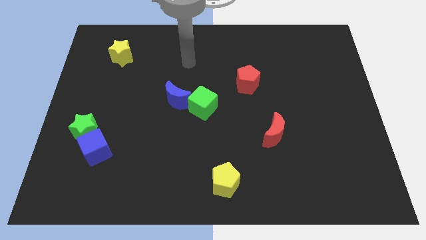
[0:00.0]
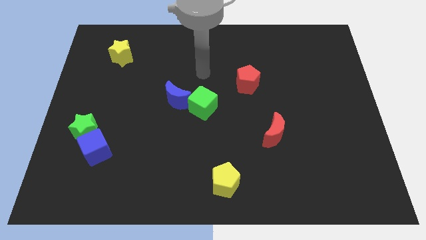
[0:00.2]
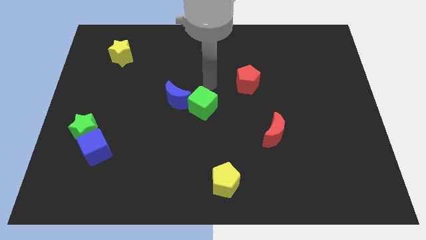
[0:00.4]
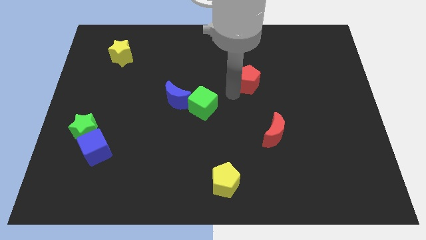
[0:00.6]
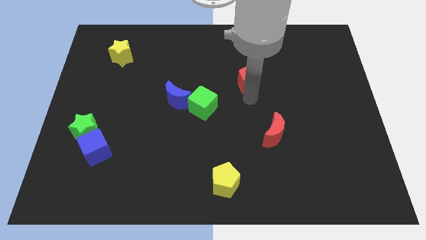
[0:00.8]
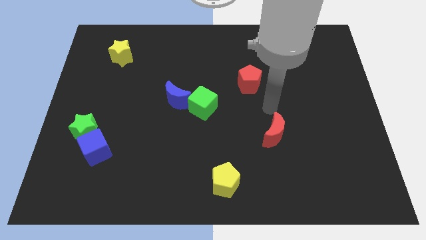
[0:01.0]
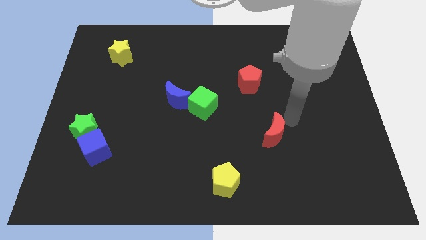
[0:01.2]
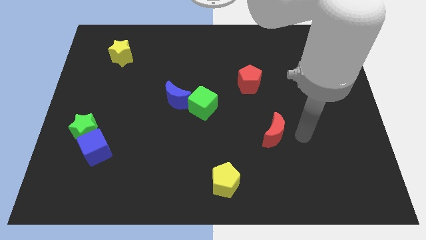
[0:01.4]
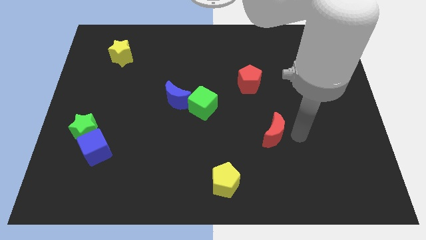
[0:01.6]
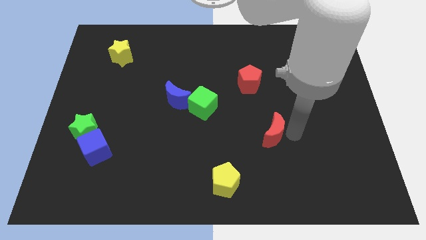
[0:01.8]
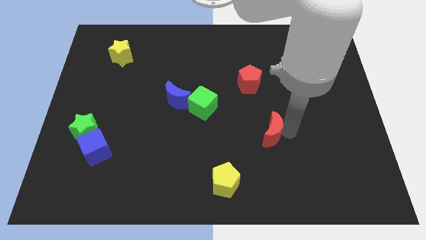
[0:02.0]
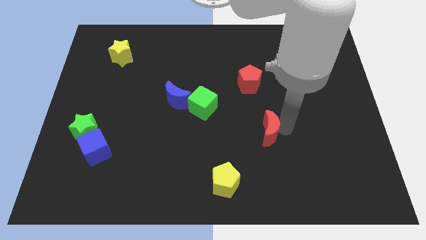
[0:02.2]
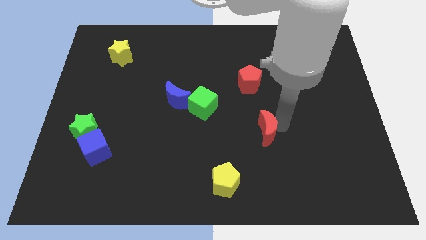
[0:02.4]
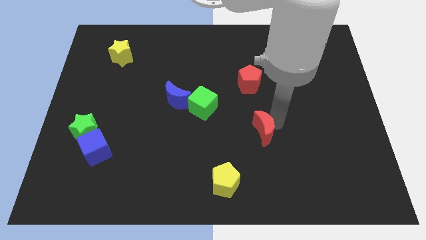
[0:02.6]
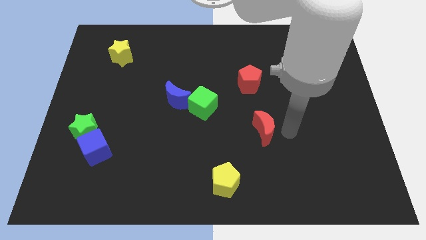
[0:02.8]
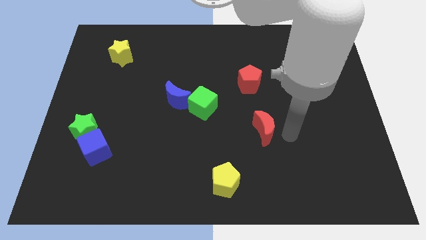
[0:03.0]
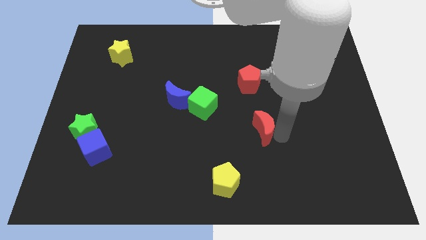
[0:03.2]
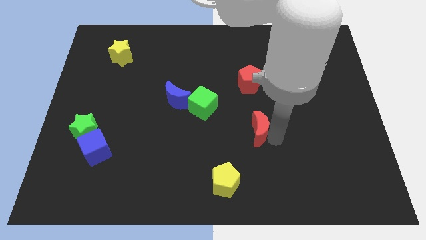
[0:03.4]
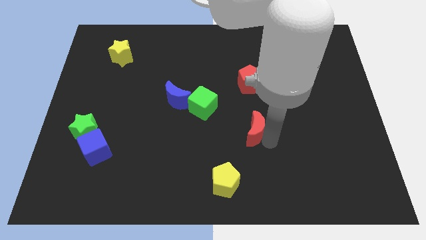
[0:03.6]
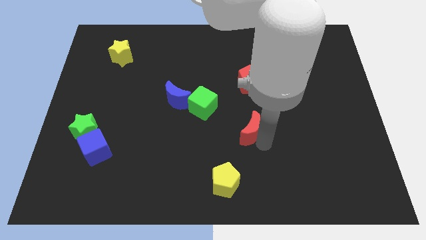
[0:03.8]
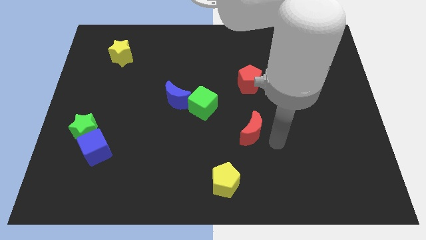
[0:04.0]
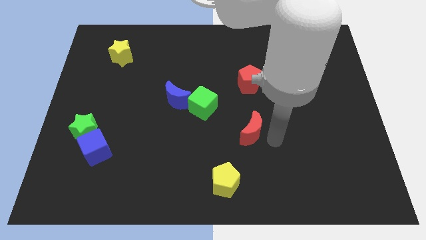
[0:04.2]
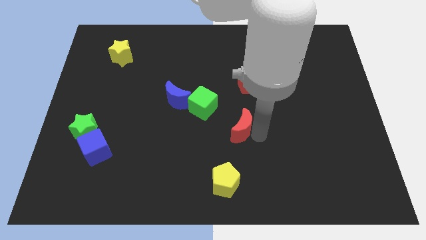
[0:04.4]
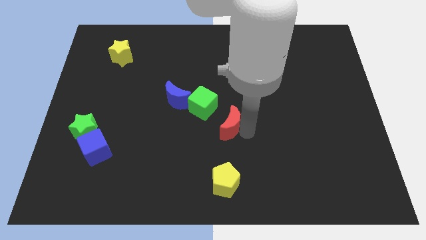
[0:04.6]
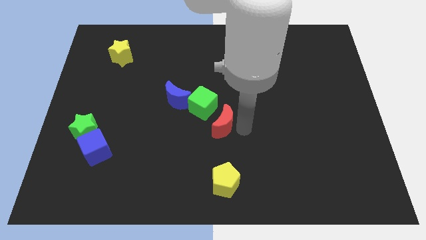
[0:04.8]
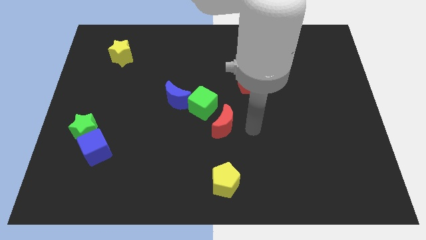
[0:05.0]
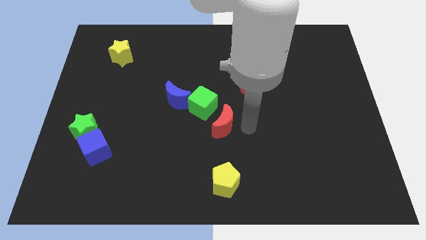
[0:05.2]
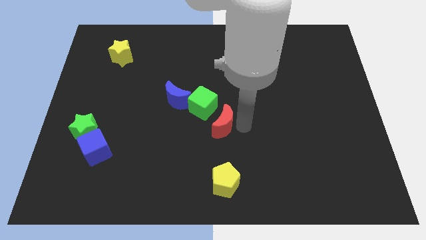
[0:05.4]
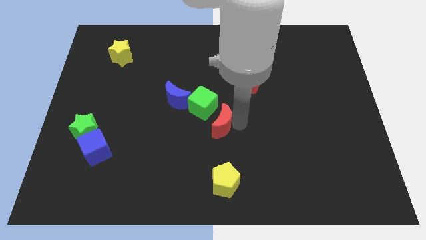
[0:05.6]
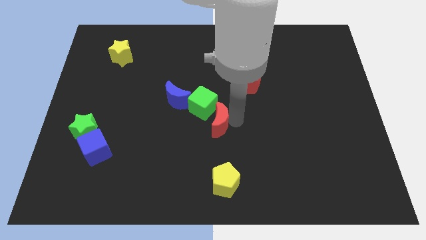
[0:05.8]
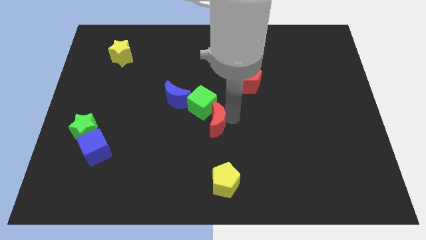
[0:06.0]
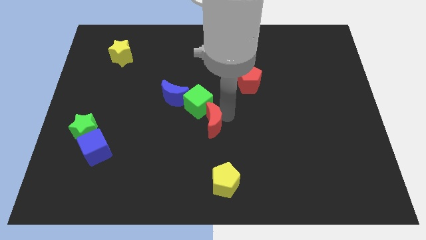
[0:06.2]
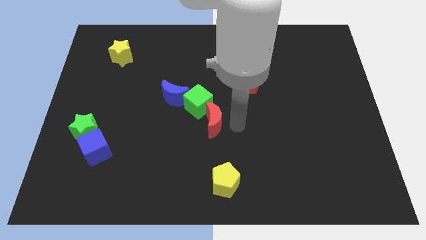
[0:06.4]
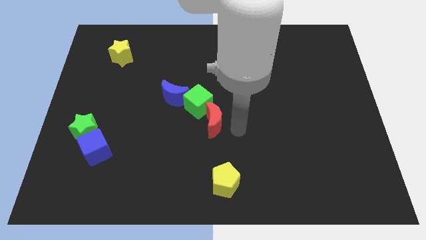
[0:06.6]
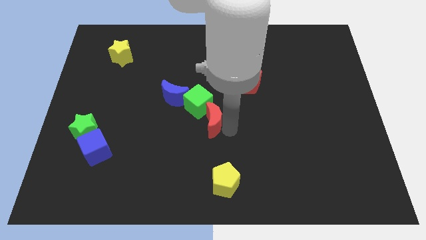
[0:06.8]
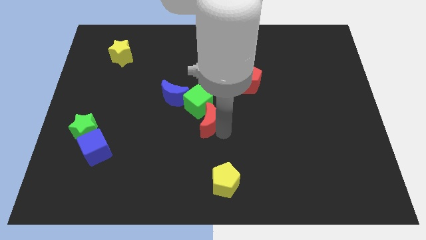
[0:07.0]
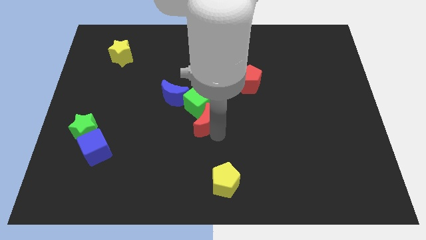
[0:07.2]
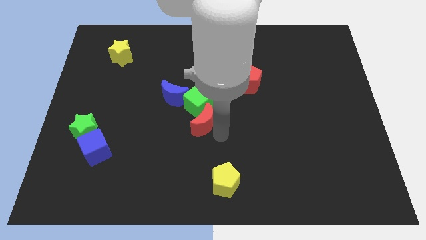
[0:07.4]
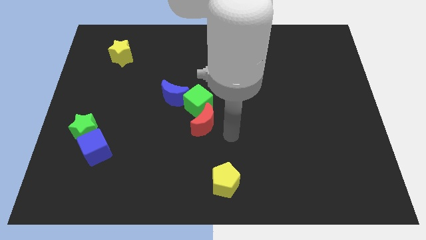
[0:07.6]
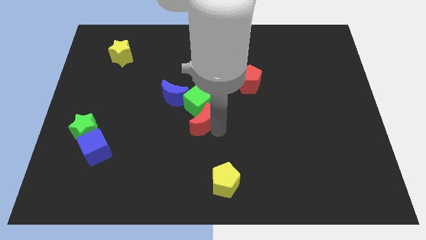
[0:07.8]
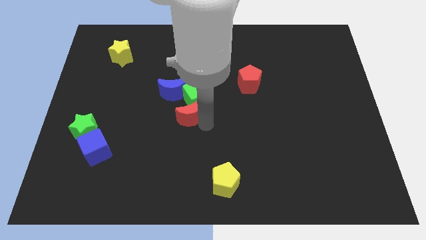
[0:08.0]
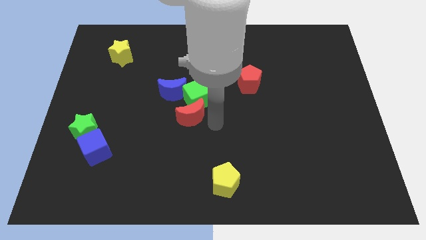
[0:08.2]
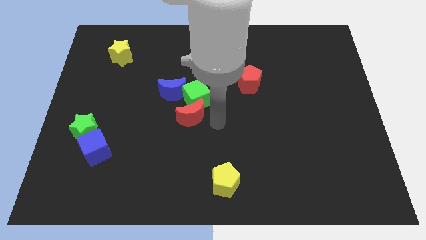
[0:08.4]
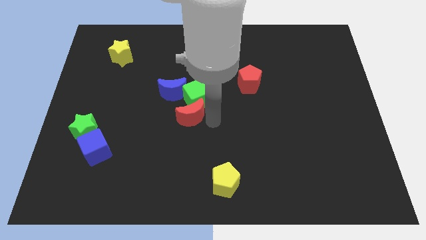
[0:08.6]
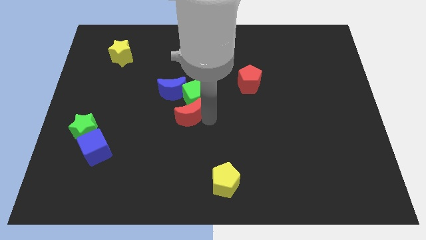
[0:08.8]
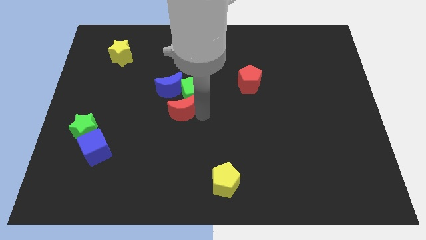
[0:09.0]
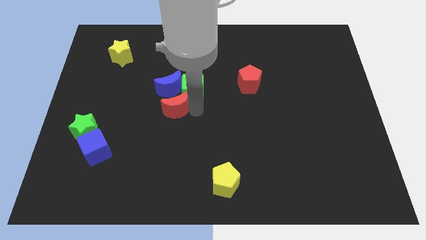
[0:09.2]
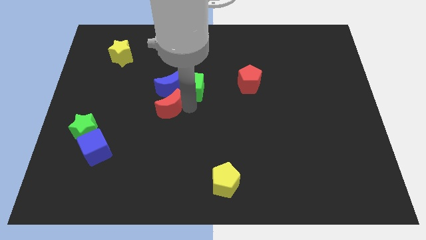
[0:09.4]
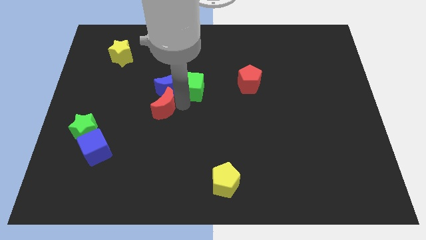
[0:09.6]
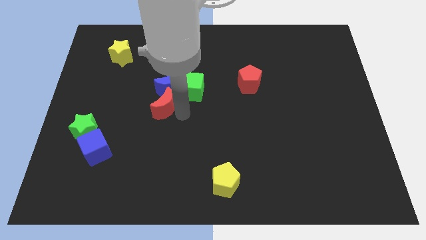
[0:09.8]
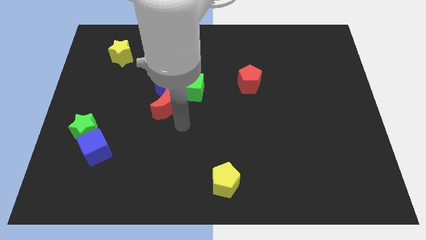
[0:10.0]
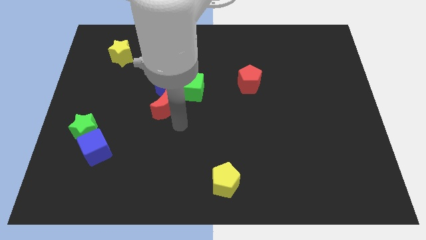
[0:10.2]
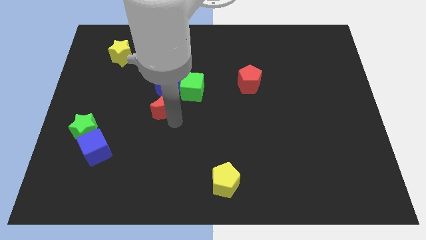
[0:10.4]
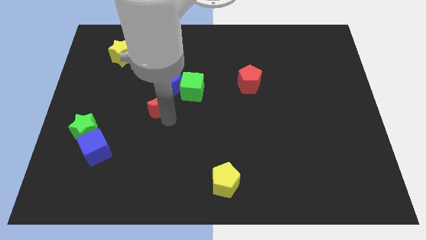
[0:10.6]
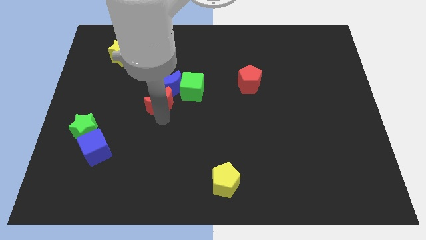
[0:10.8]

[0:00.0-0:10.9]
slide the red moon left of the green cube

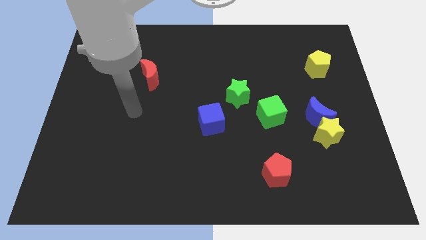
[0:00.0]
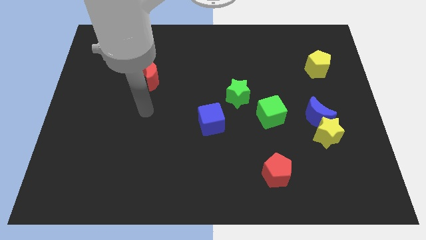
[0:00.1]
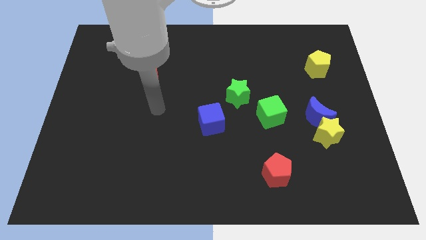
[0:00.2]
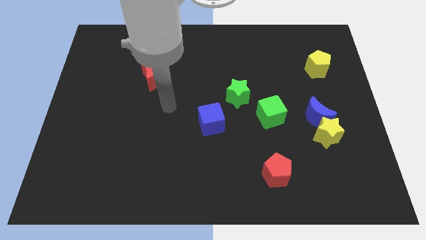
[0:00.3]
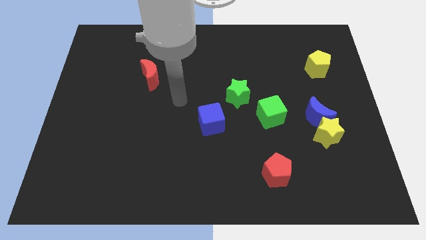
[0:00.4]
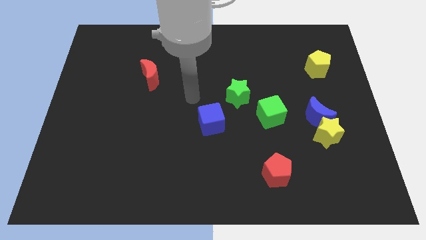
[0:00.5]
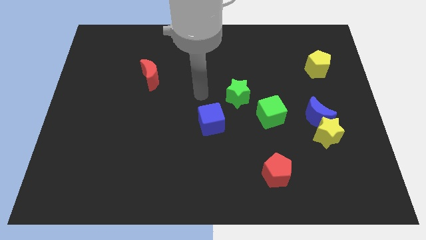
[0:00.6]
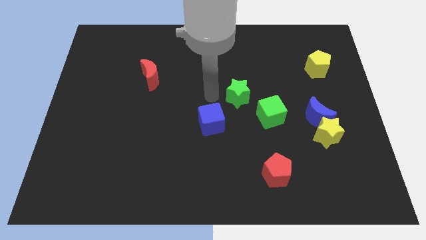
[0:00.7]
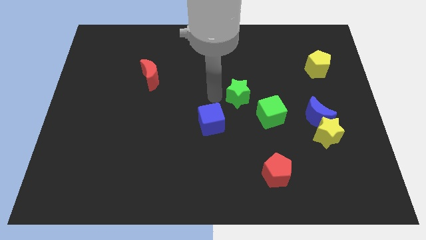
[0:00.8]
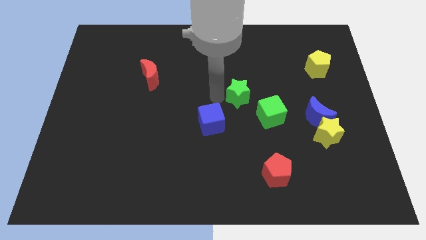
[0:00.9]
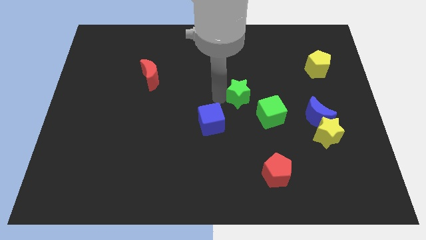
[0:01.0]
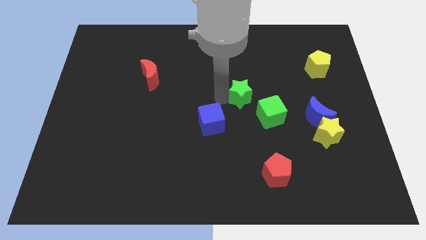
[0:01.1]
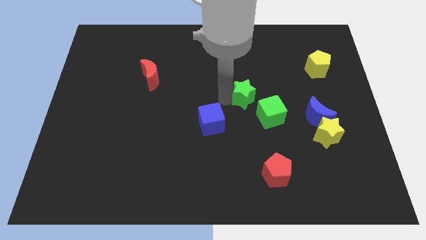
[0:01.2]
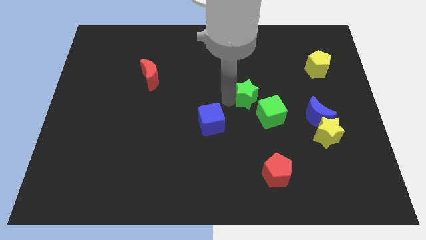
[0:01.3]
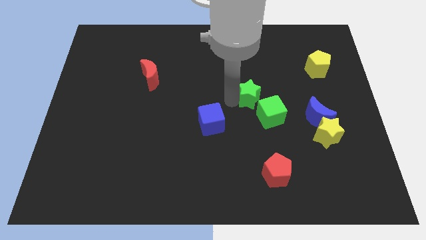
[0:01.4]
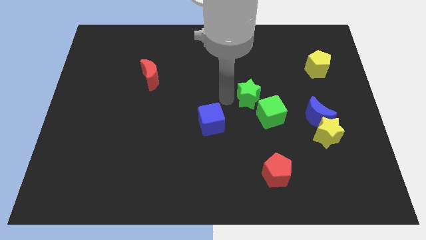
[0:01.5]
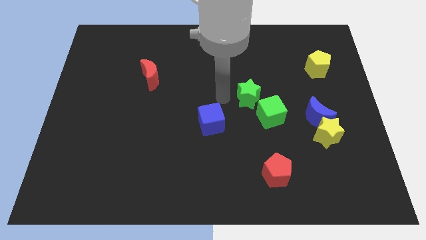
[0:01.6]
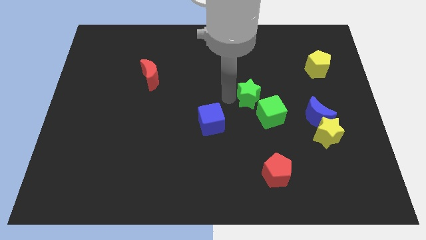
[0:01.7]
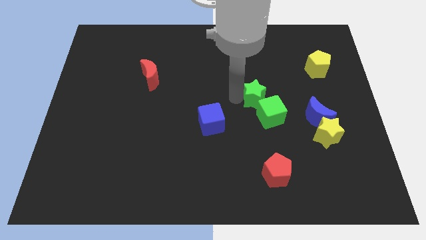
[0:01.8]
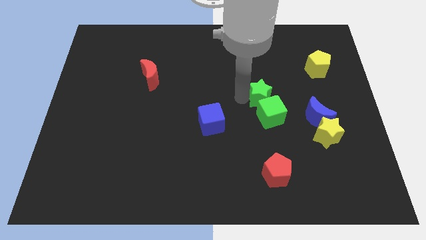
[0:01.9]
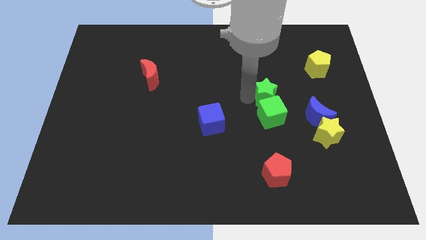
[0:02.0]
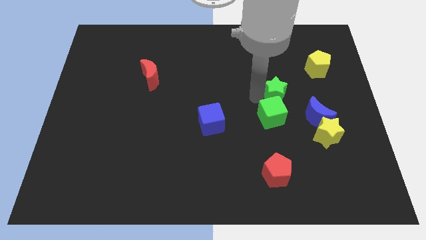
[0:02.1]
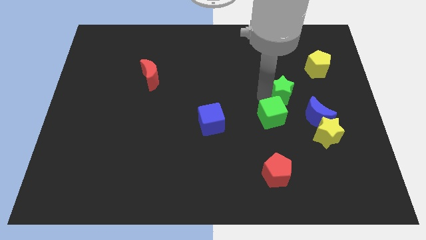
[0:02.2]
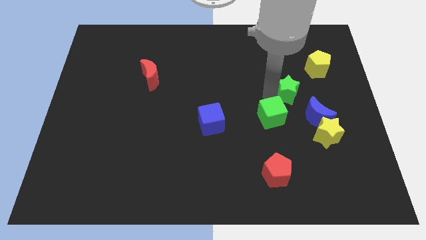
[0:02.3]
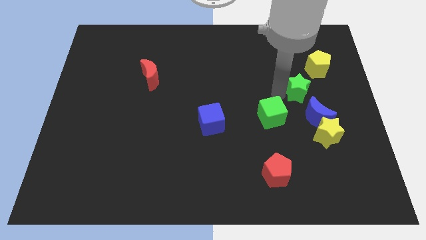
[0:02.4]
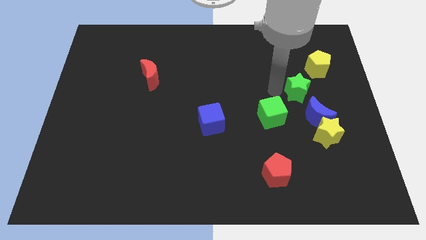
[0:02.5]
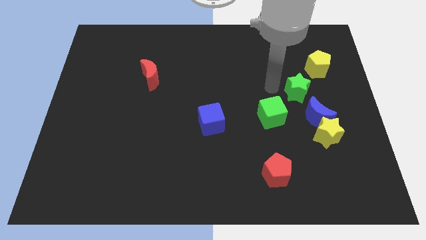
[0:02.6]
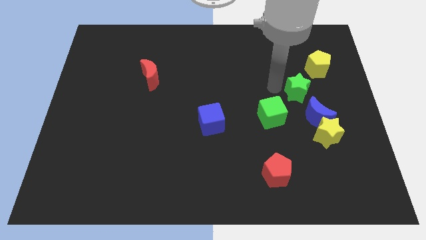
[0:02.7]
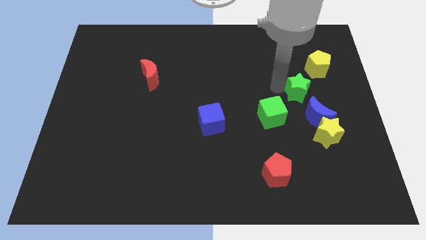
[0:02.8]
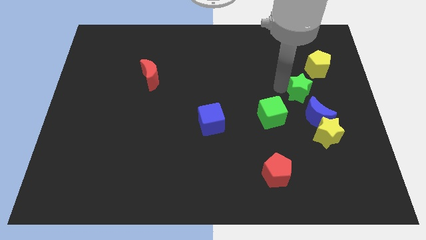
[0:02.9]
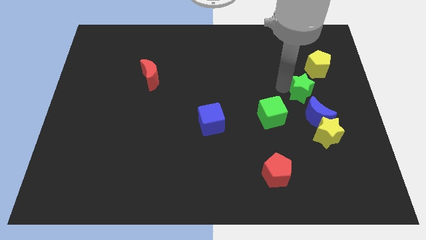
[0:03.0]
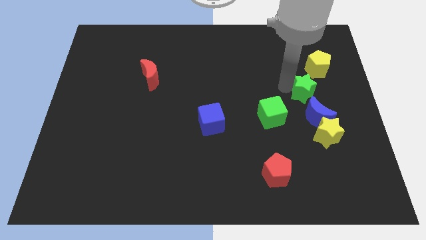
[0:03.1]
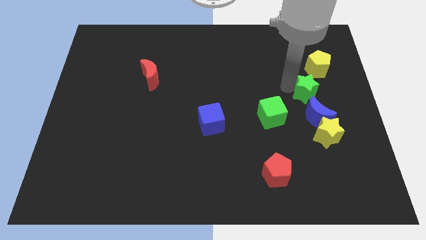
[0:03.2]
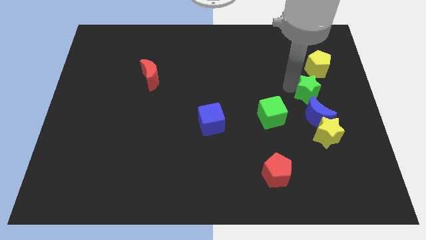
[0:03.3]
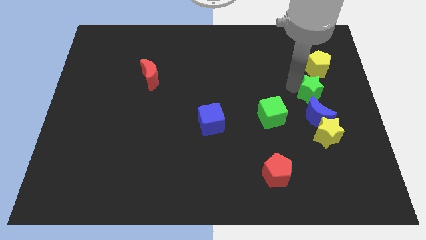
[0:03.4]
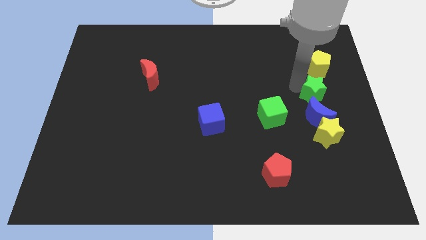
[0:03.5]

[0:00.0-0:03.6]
put the green star to the top right side of the blue moon
